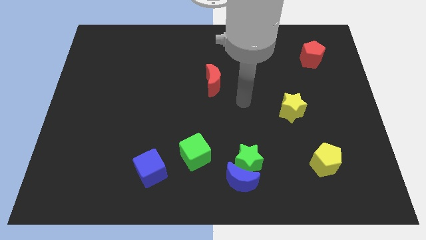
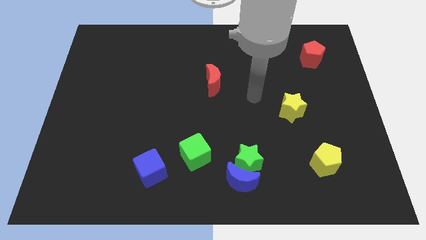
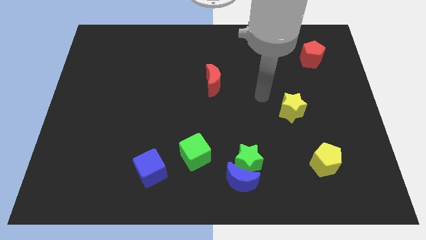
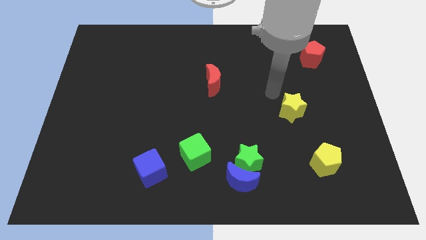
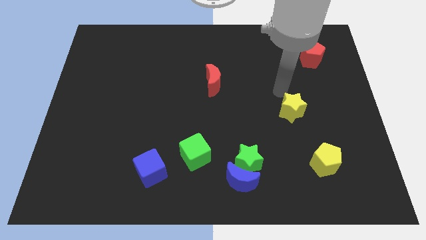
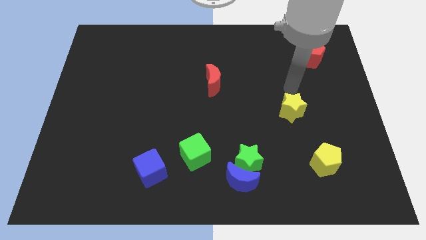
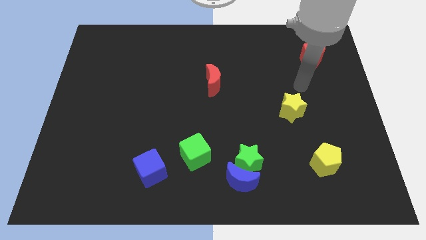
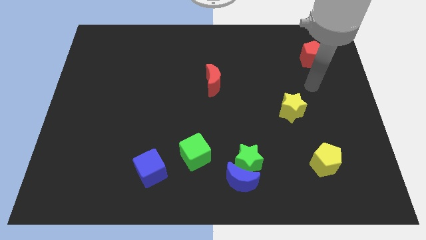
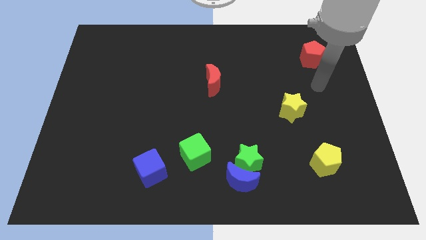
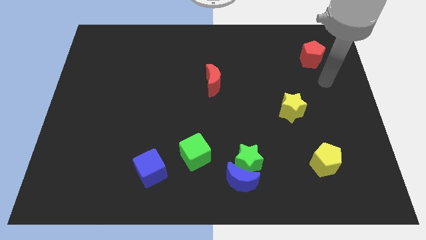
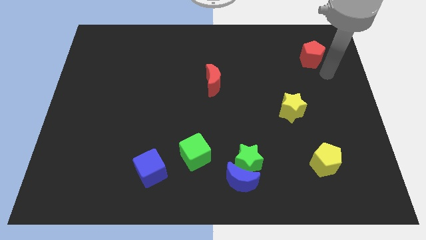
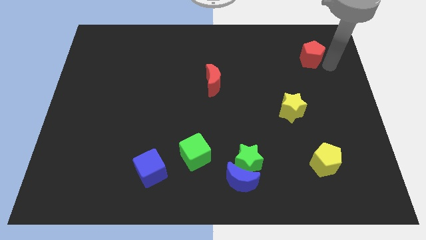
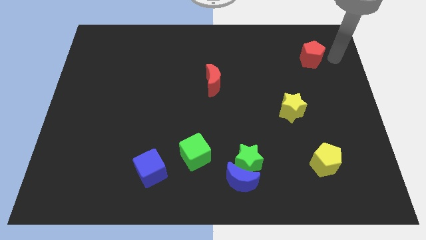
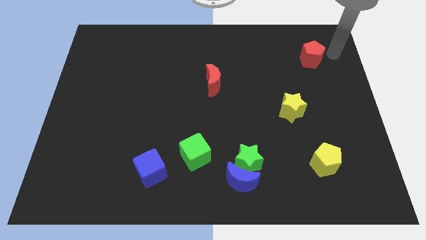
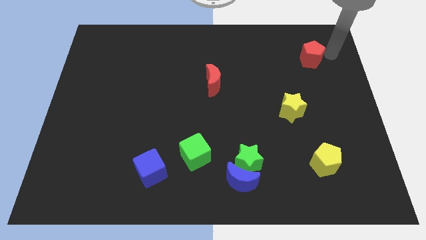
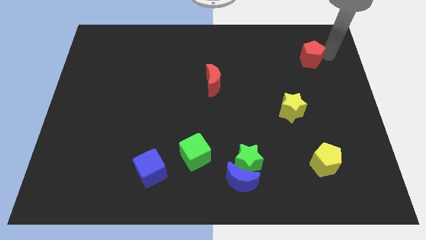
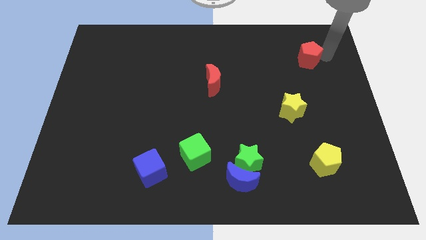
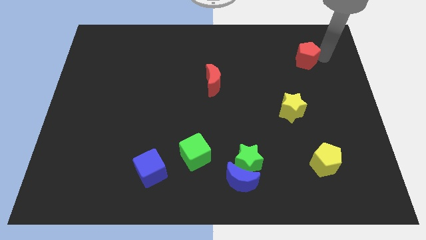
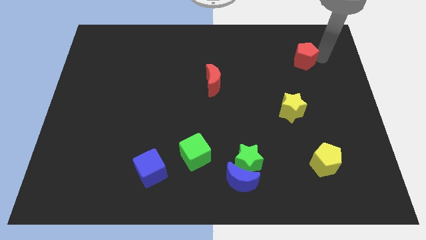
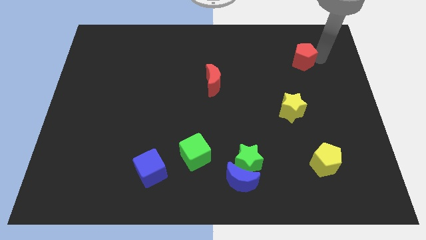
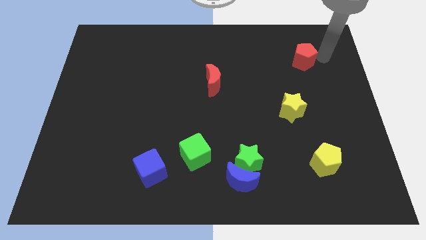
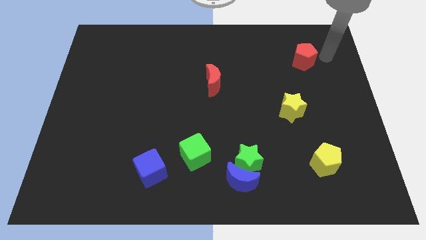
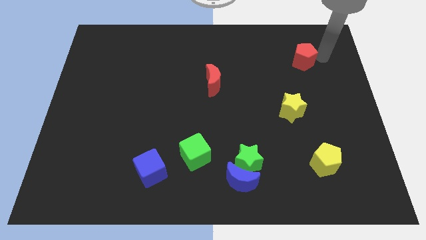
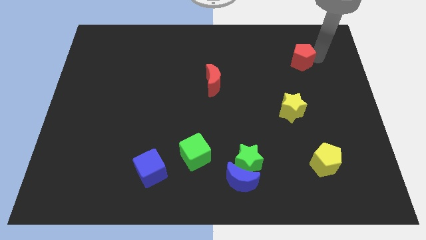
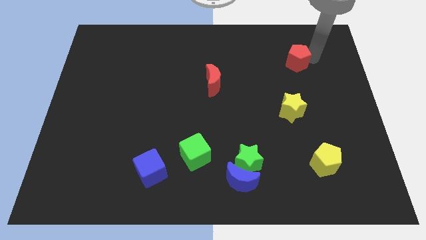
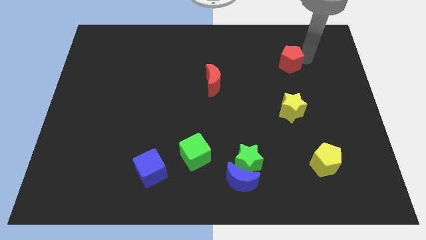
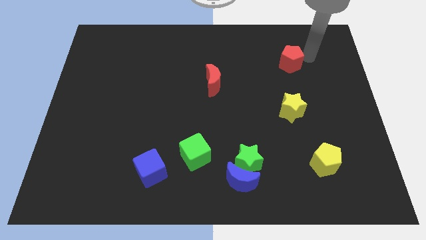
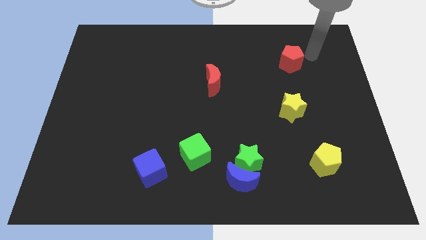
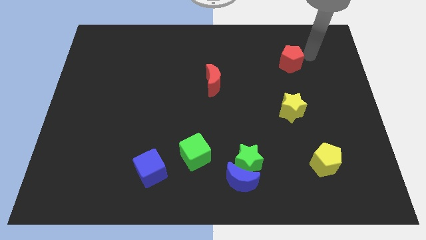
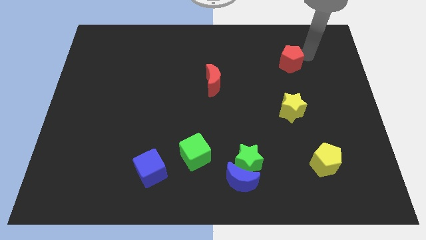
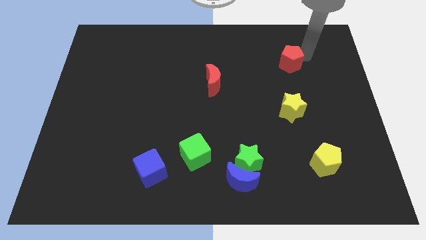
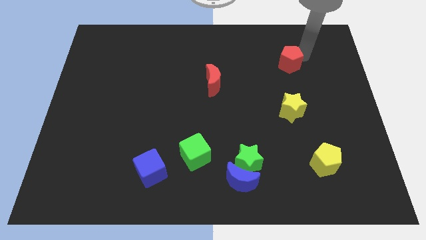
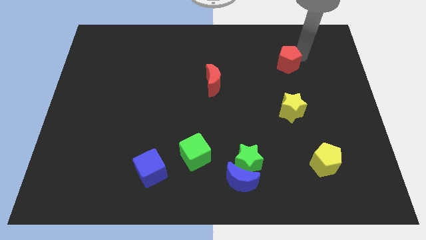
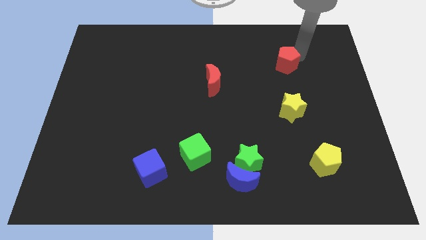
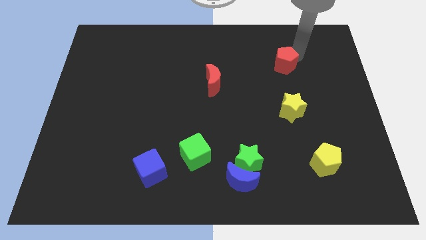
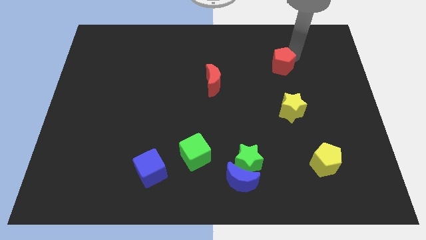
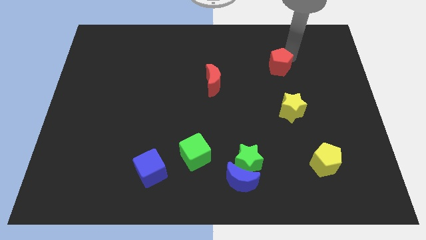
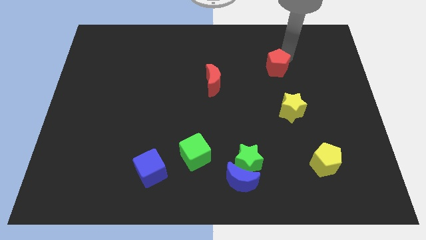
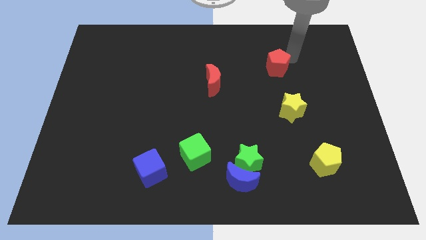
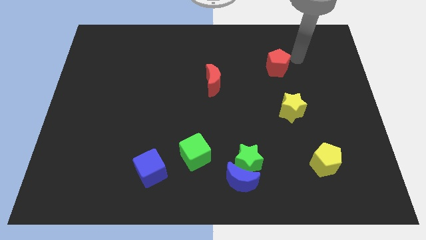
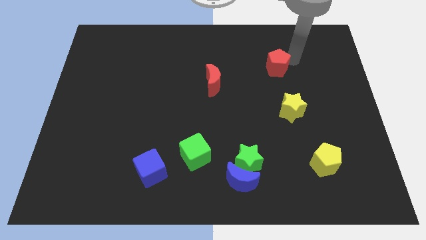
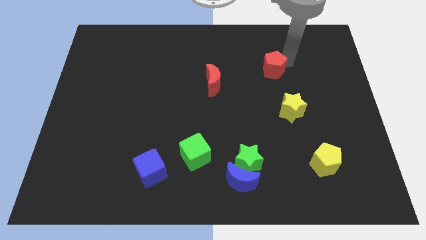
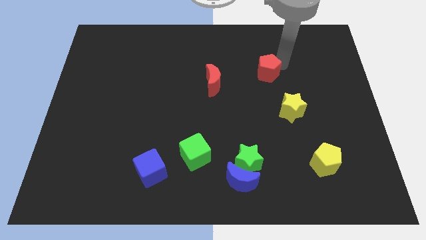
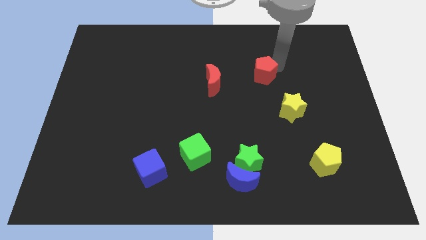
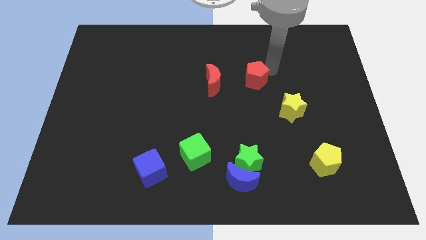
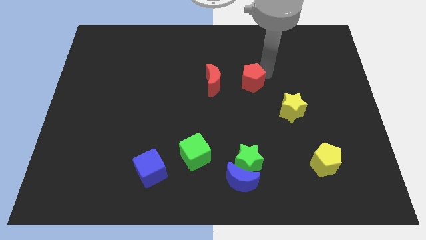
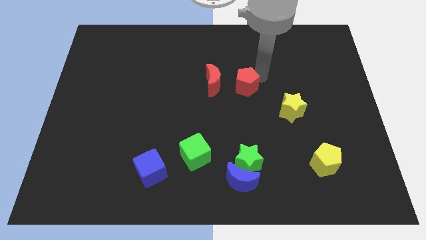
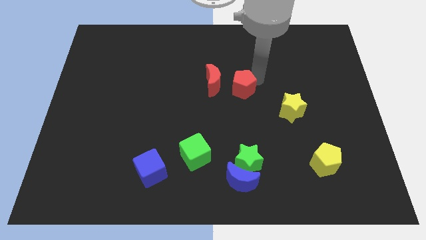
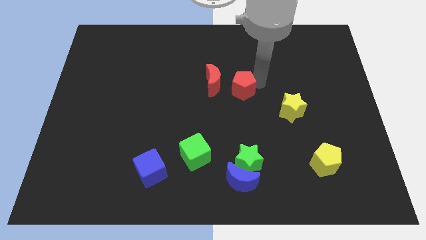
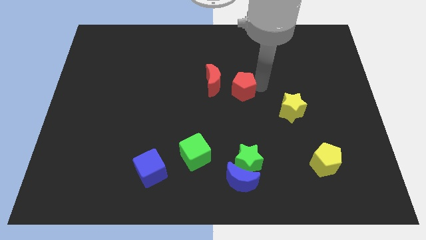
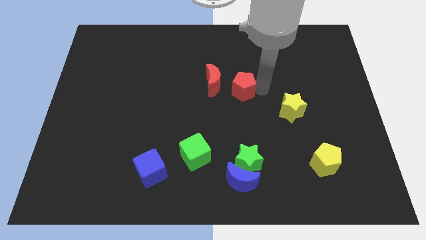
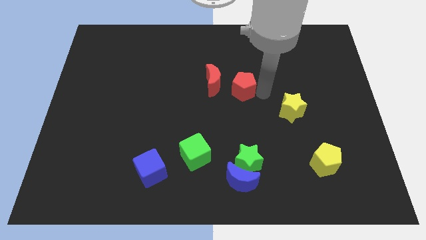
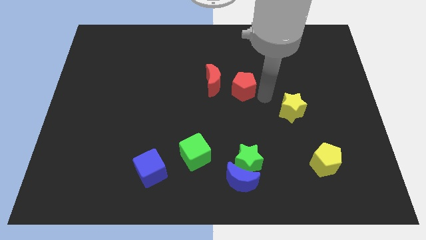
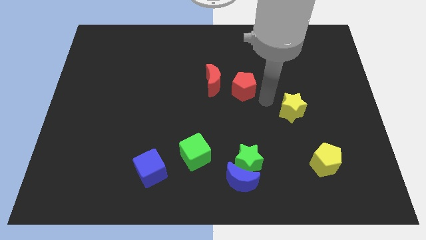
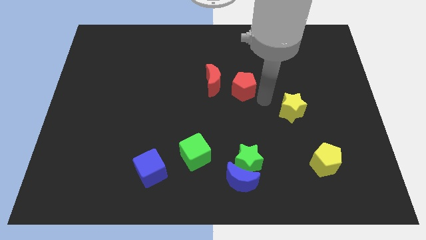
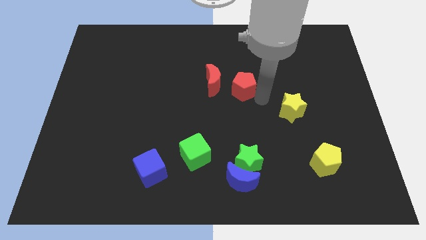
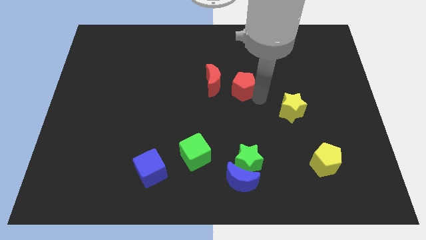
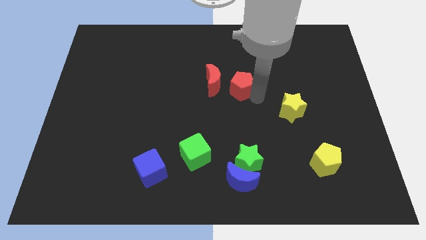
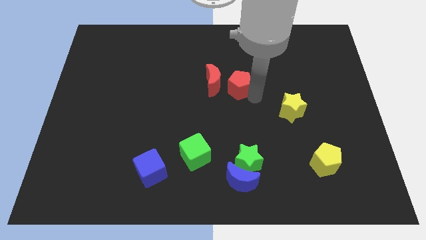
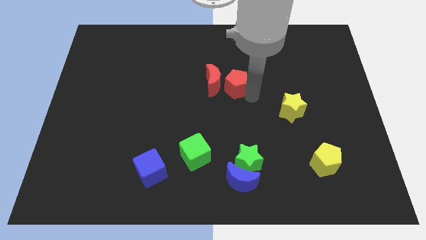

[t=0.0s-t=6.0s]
push the red pentagon towards the red moon
